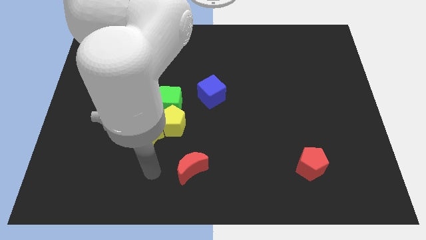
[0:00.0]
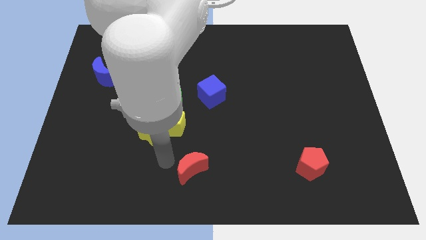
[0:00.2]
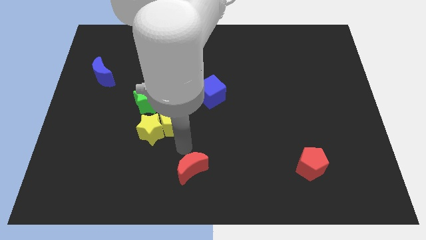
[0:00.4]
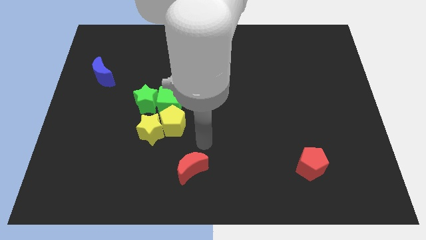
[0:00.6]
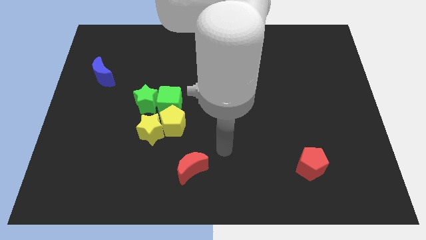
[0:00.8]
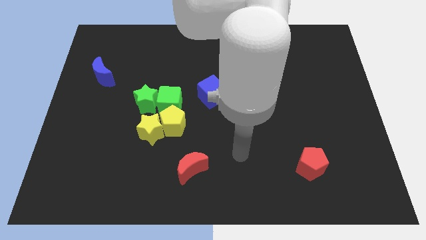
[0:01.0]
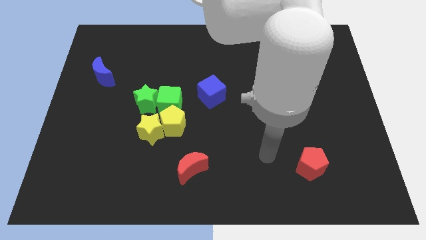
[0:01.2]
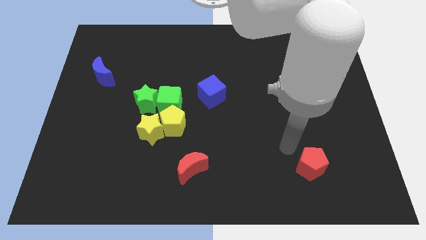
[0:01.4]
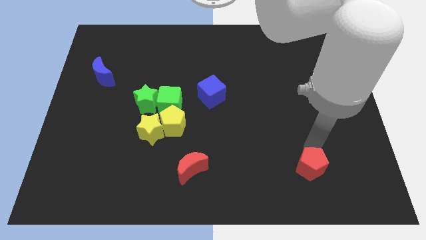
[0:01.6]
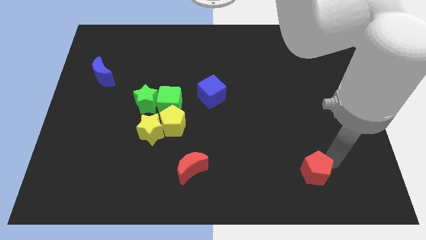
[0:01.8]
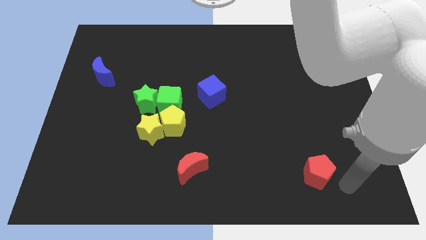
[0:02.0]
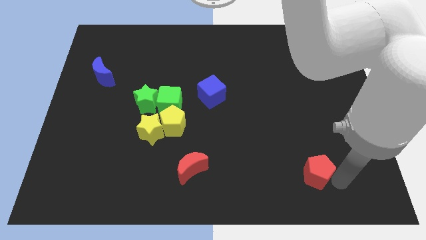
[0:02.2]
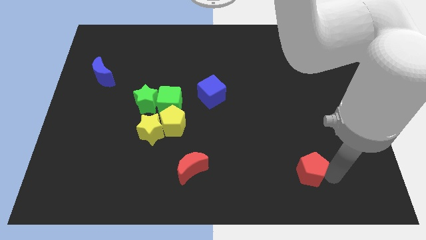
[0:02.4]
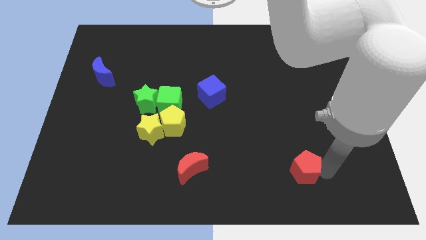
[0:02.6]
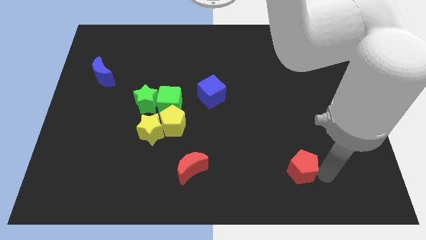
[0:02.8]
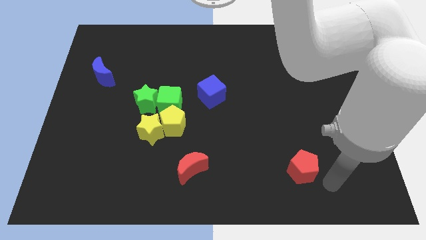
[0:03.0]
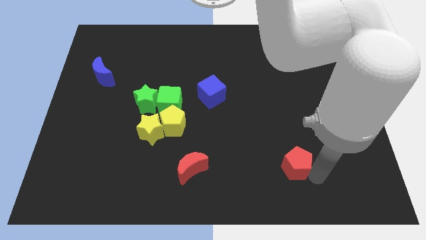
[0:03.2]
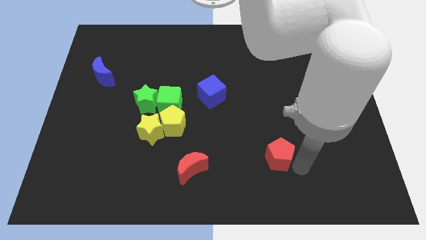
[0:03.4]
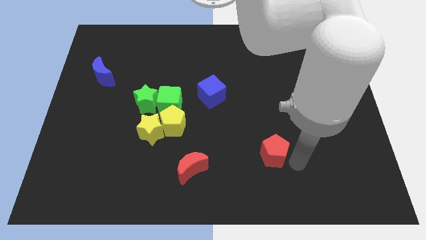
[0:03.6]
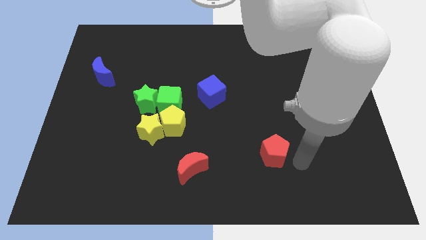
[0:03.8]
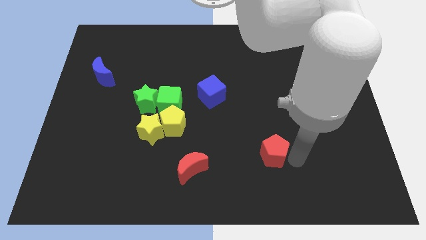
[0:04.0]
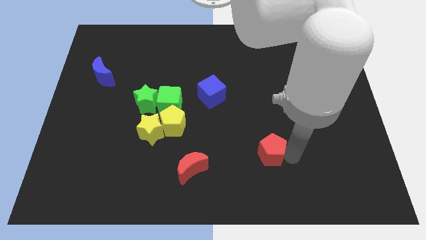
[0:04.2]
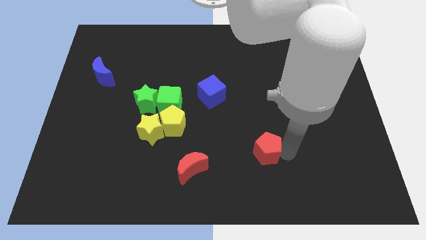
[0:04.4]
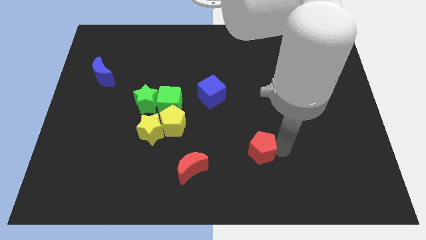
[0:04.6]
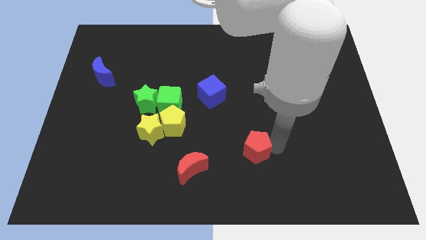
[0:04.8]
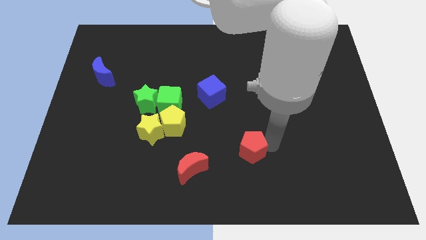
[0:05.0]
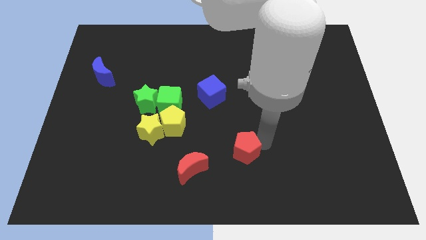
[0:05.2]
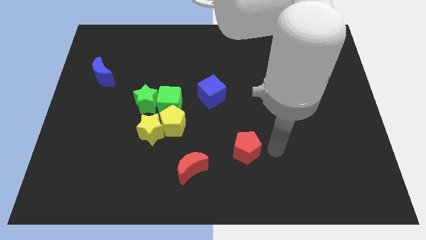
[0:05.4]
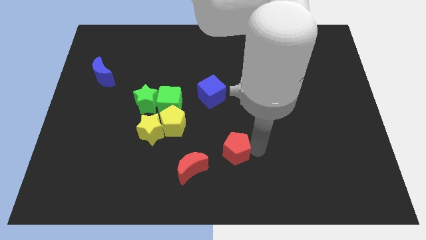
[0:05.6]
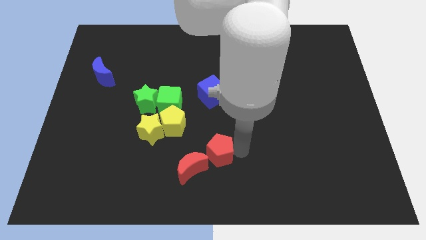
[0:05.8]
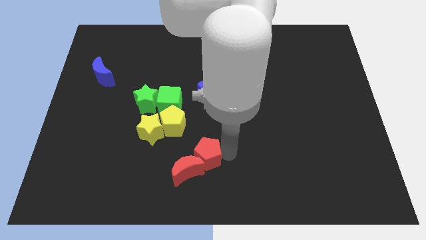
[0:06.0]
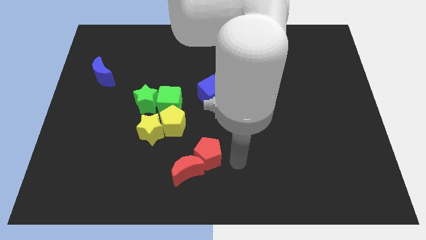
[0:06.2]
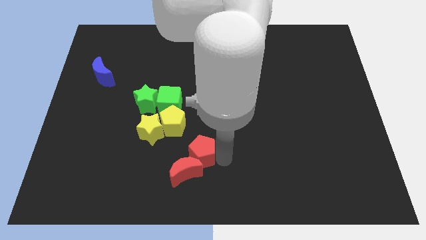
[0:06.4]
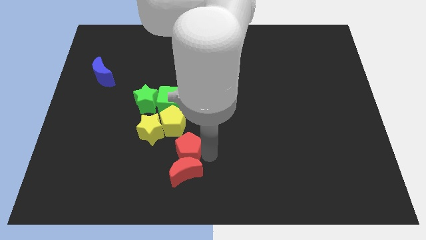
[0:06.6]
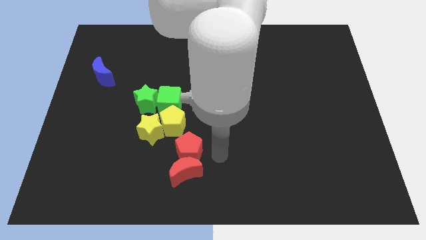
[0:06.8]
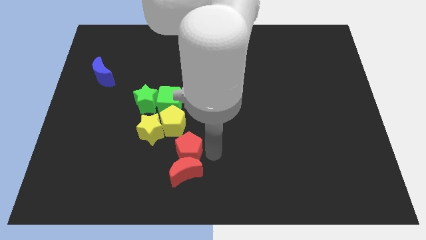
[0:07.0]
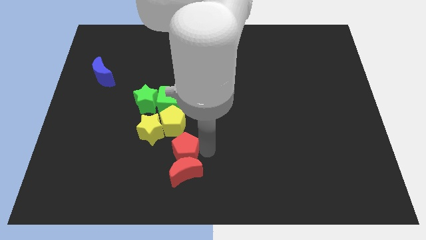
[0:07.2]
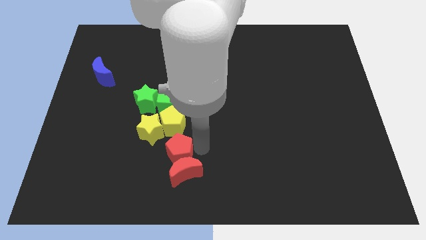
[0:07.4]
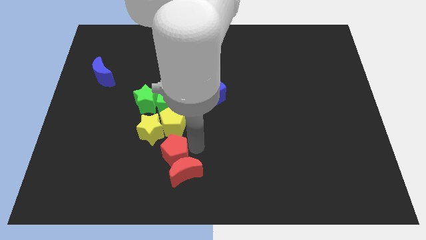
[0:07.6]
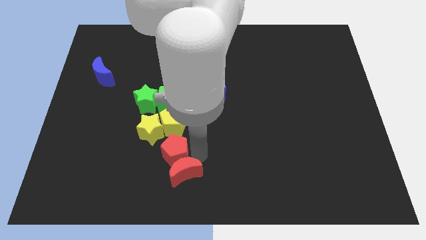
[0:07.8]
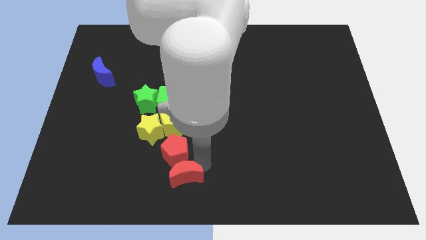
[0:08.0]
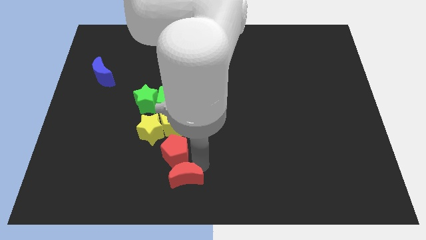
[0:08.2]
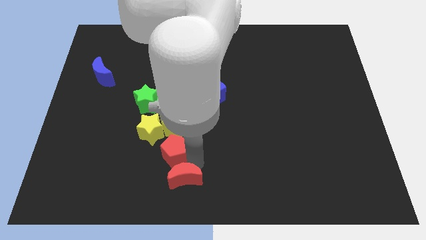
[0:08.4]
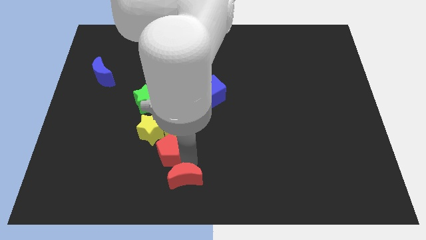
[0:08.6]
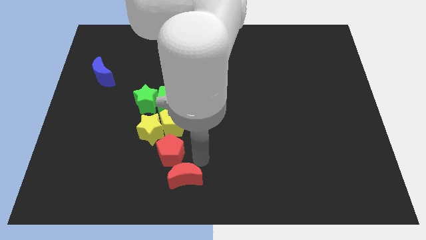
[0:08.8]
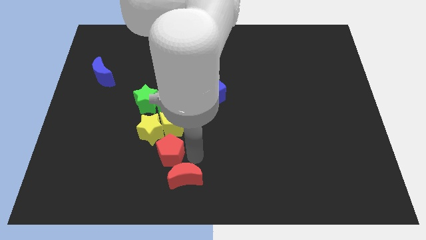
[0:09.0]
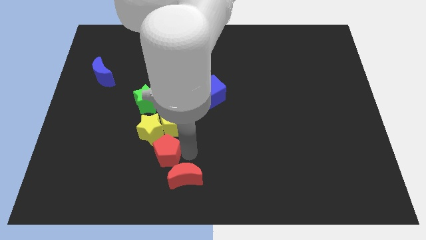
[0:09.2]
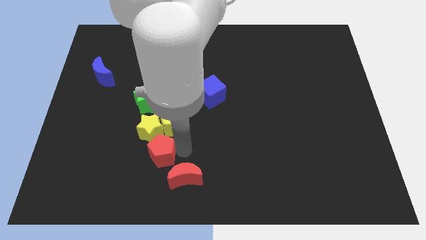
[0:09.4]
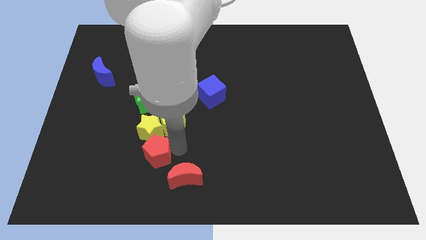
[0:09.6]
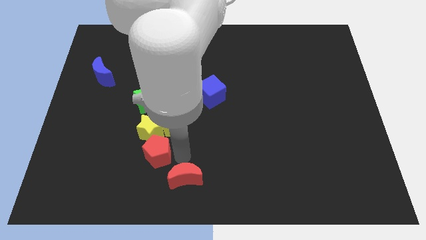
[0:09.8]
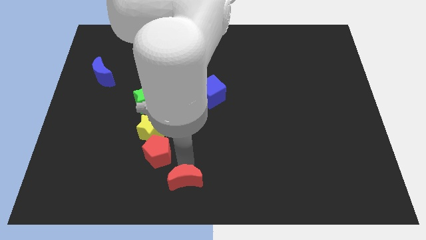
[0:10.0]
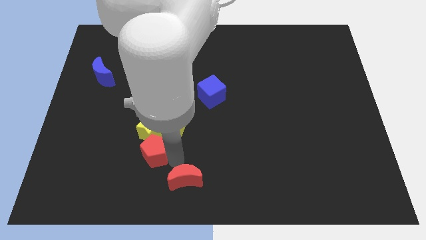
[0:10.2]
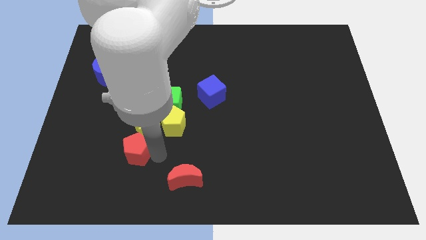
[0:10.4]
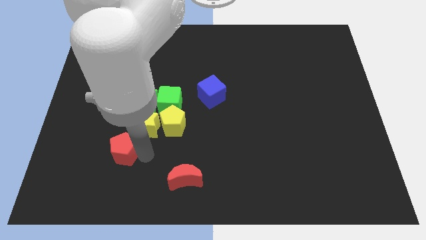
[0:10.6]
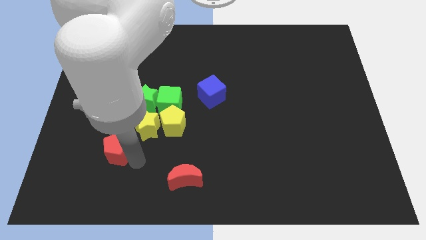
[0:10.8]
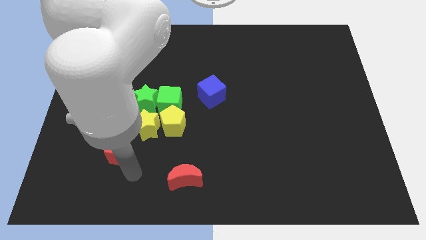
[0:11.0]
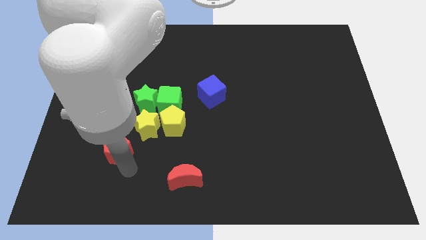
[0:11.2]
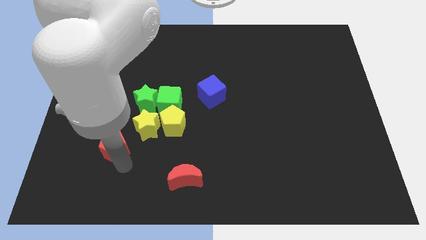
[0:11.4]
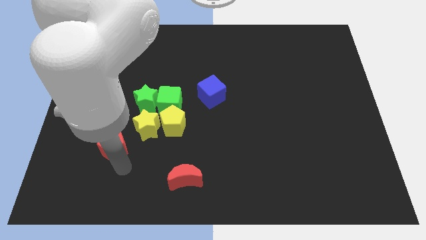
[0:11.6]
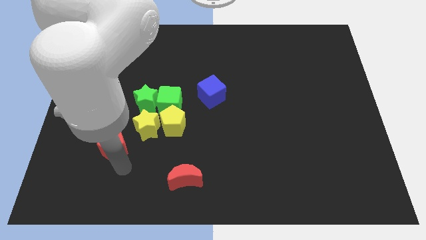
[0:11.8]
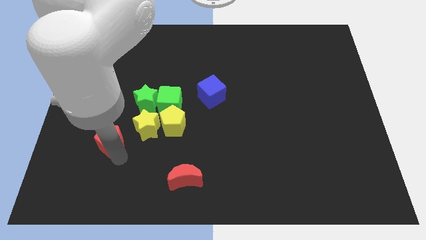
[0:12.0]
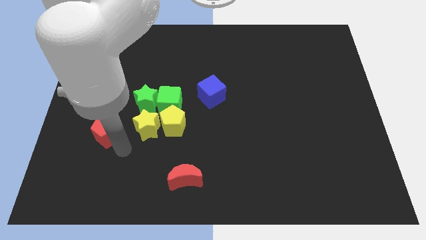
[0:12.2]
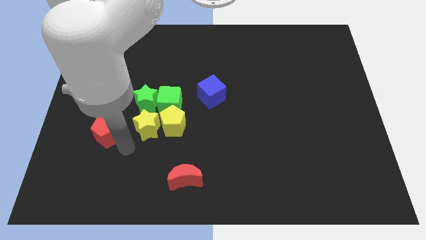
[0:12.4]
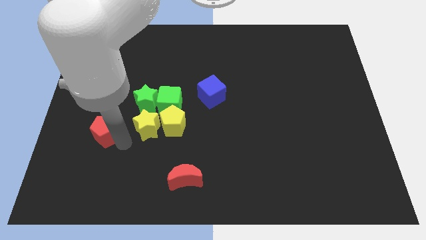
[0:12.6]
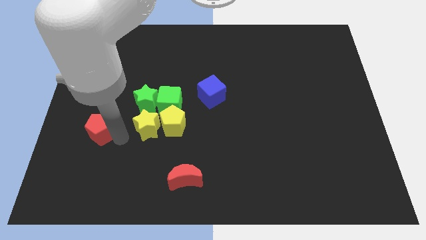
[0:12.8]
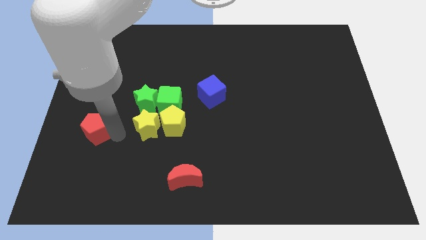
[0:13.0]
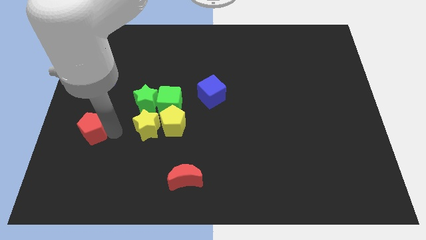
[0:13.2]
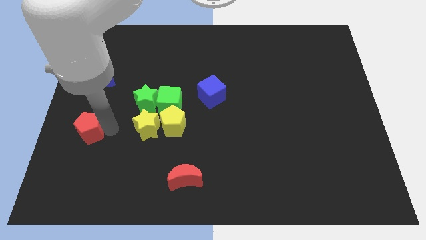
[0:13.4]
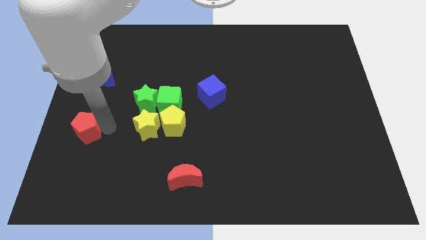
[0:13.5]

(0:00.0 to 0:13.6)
move the red pentagon to the center left

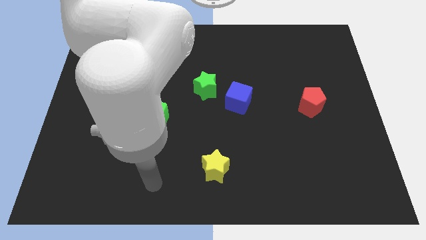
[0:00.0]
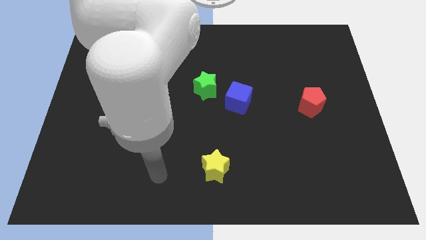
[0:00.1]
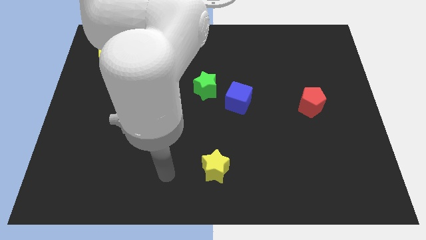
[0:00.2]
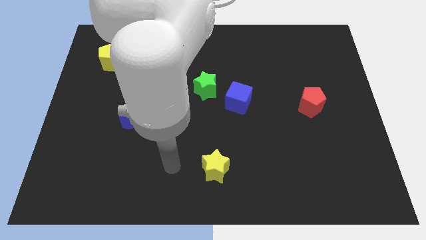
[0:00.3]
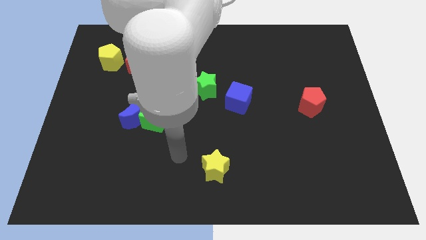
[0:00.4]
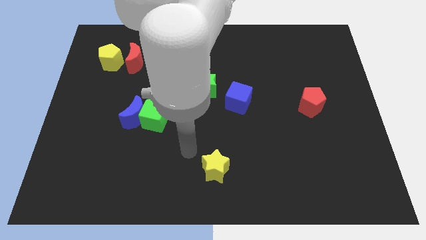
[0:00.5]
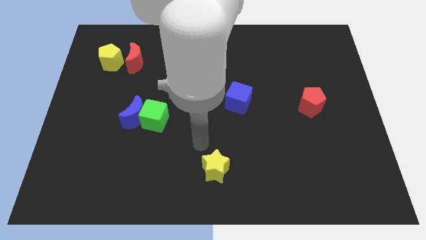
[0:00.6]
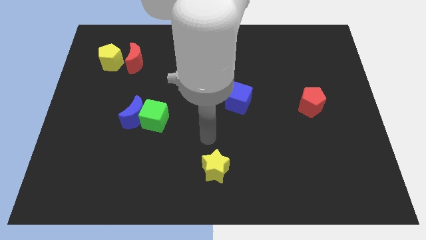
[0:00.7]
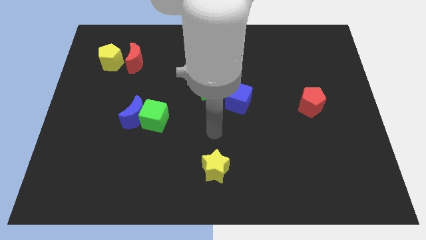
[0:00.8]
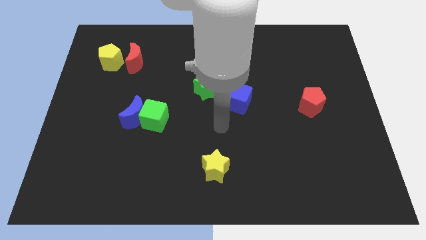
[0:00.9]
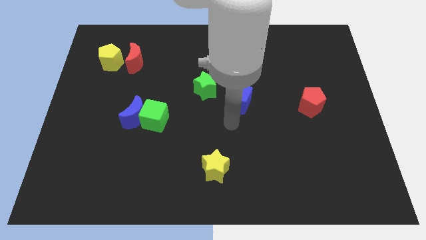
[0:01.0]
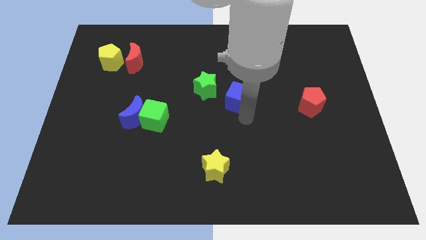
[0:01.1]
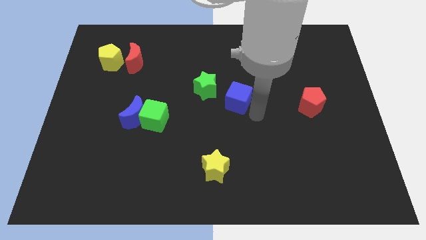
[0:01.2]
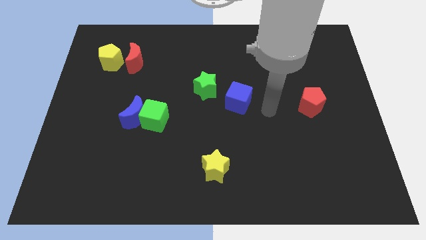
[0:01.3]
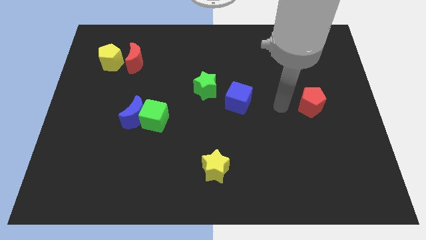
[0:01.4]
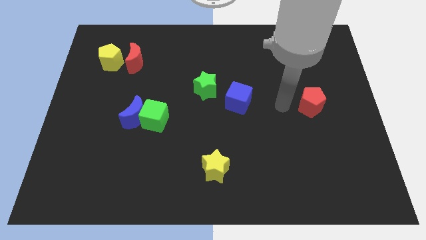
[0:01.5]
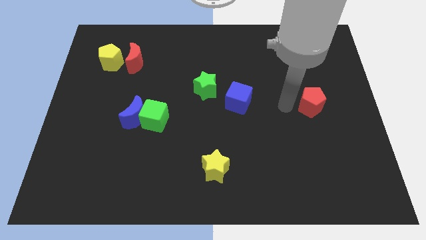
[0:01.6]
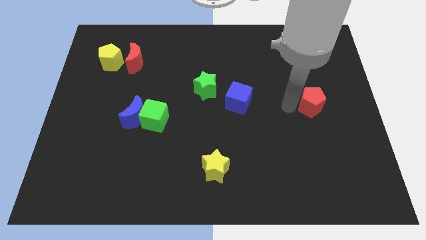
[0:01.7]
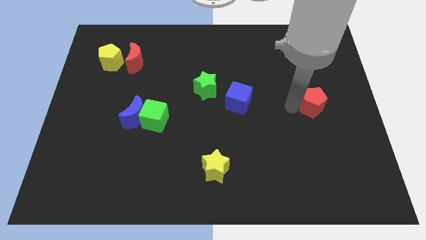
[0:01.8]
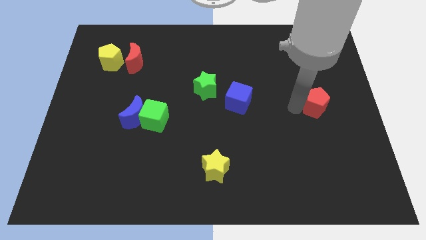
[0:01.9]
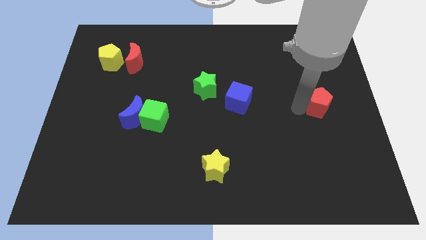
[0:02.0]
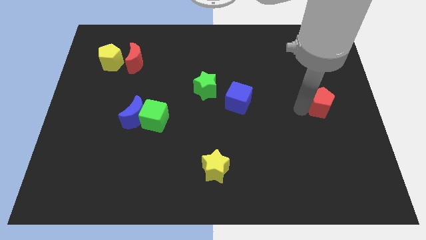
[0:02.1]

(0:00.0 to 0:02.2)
put the red pentagon to the right side
